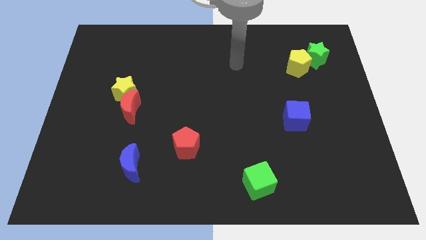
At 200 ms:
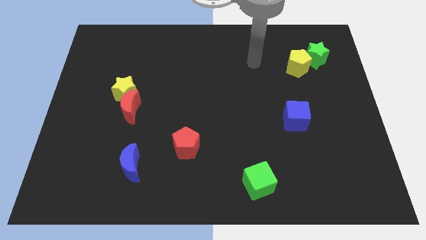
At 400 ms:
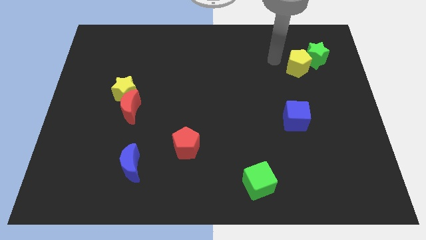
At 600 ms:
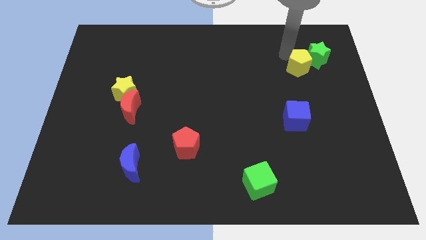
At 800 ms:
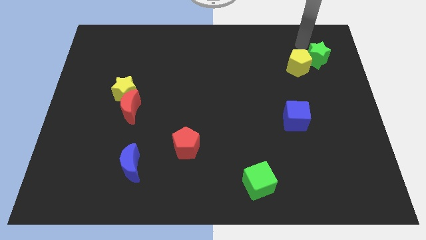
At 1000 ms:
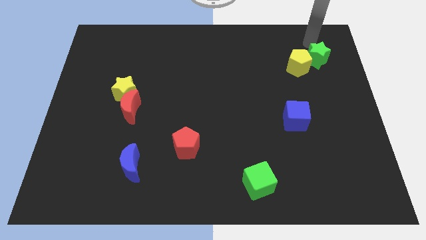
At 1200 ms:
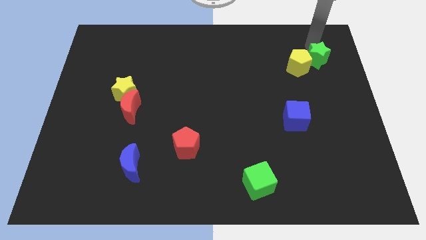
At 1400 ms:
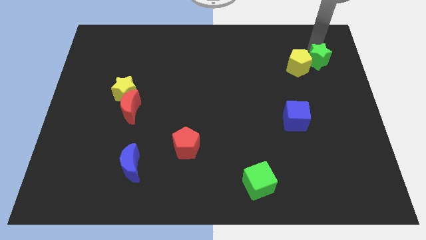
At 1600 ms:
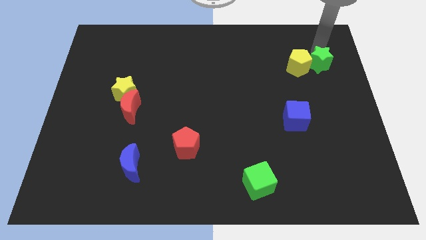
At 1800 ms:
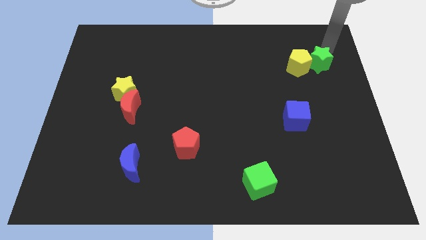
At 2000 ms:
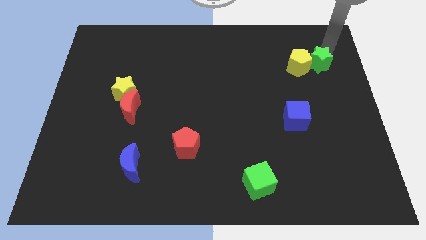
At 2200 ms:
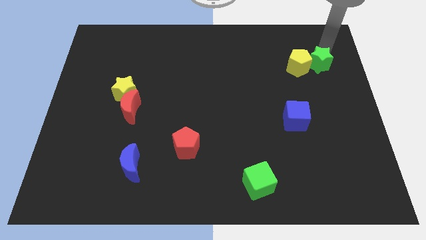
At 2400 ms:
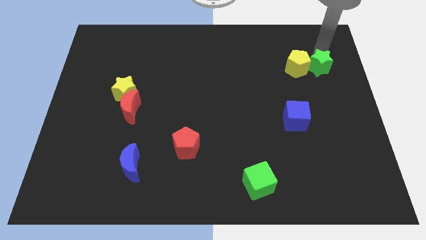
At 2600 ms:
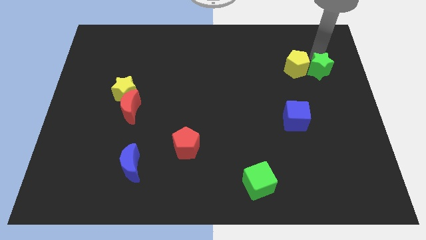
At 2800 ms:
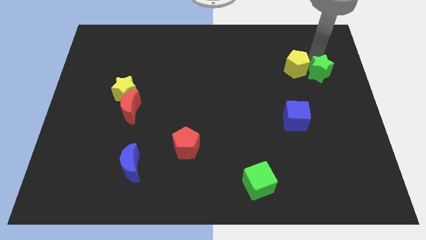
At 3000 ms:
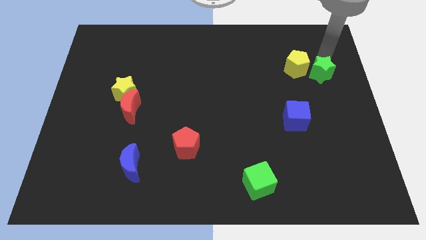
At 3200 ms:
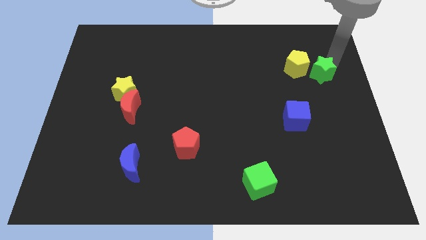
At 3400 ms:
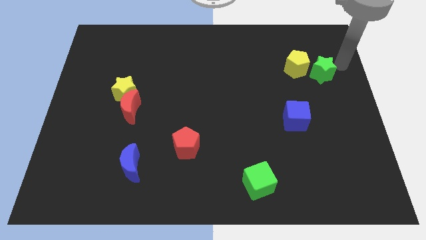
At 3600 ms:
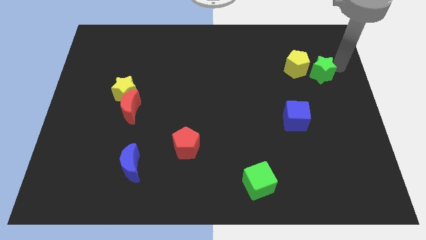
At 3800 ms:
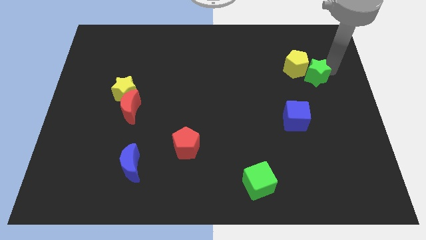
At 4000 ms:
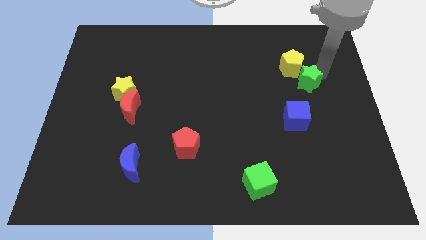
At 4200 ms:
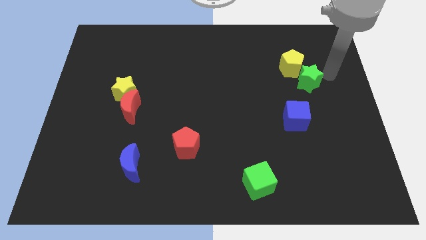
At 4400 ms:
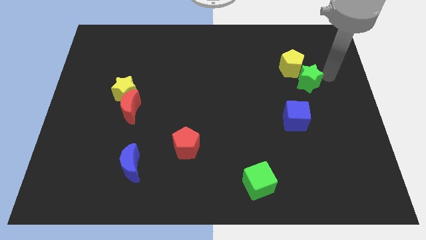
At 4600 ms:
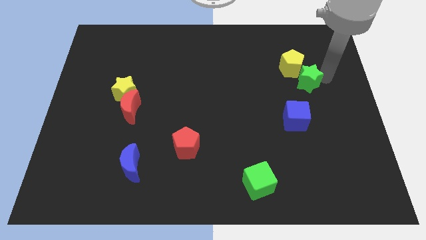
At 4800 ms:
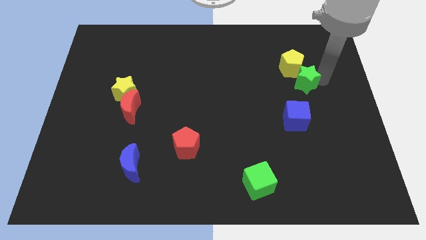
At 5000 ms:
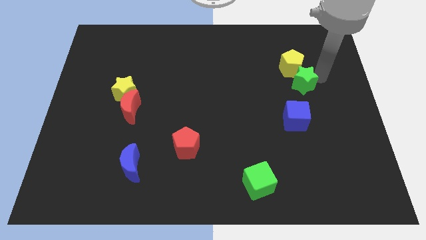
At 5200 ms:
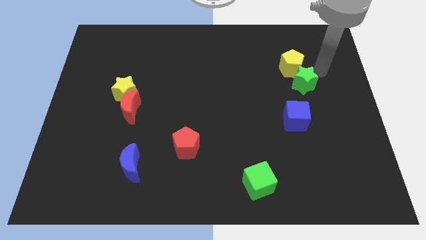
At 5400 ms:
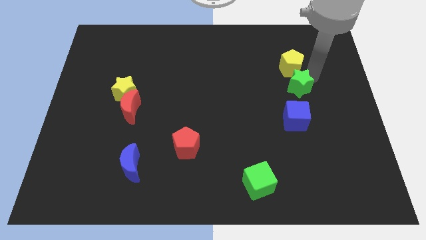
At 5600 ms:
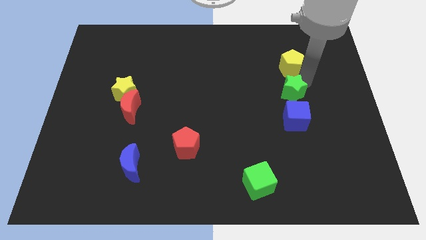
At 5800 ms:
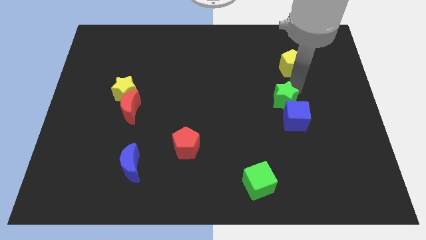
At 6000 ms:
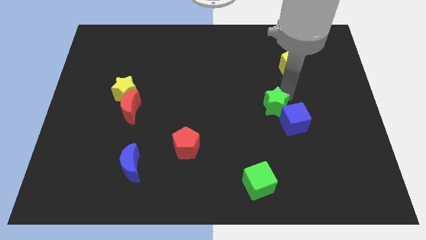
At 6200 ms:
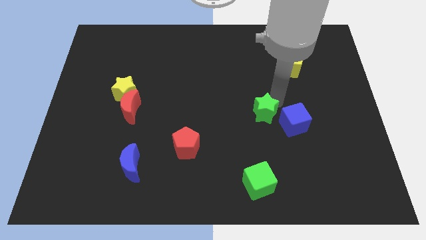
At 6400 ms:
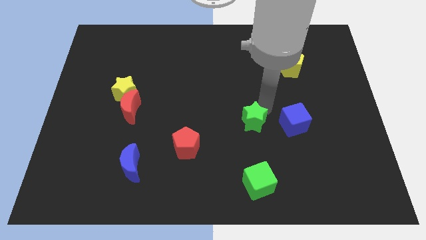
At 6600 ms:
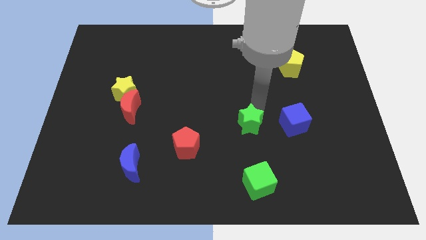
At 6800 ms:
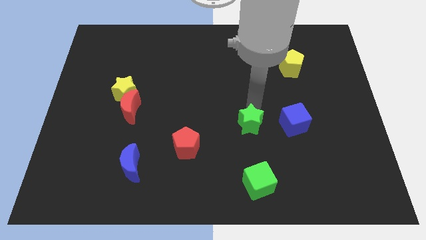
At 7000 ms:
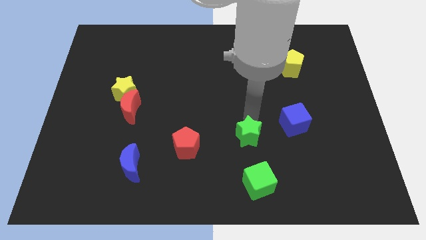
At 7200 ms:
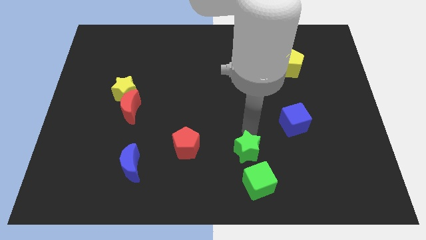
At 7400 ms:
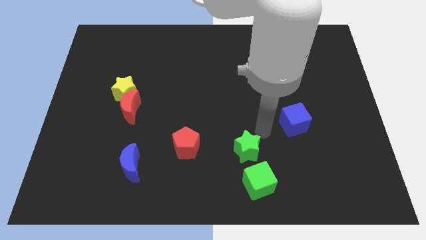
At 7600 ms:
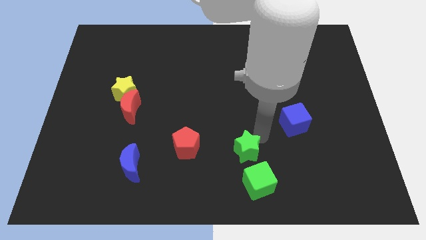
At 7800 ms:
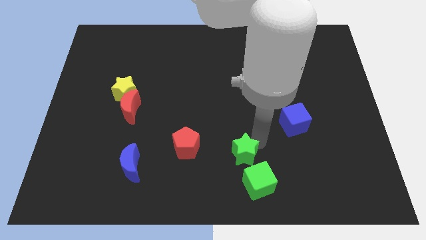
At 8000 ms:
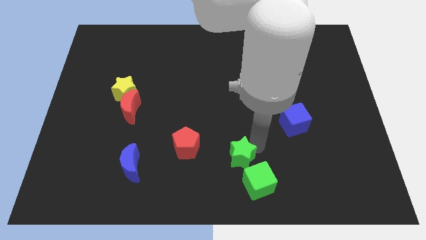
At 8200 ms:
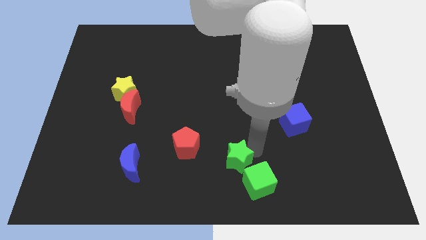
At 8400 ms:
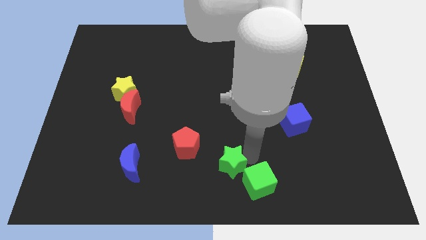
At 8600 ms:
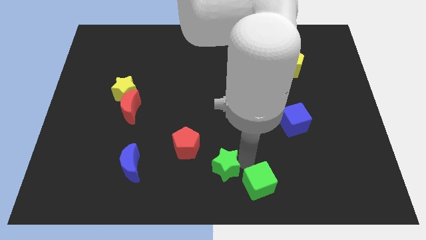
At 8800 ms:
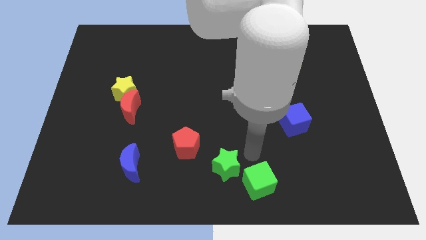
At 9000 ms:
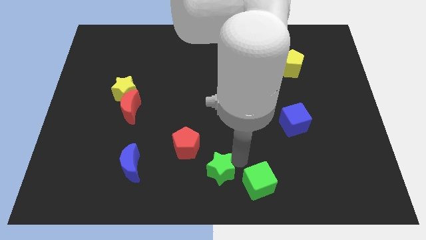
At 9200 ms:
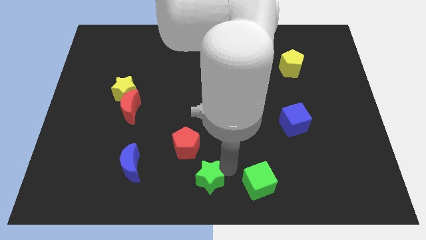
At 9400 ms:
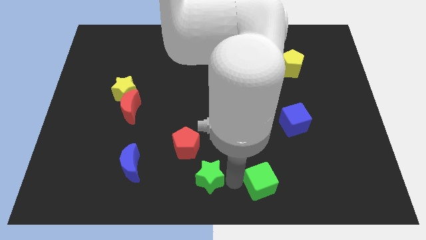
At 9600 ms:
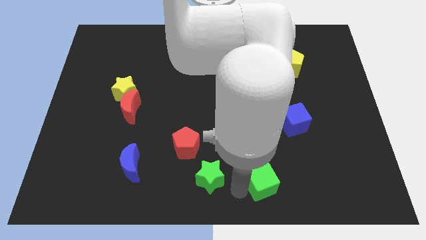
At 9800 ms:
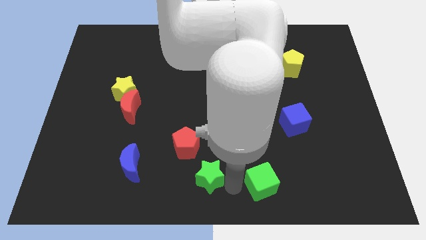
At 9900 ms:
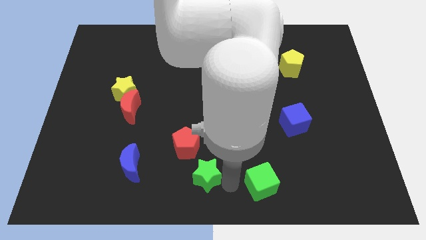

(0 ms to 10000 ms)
push the green star to the right of the blue moon

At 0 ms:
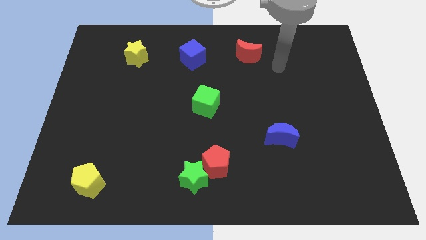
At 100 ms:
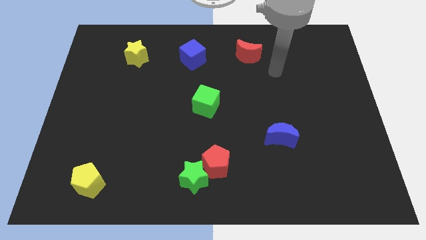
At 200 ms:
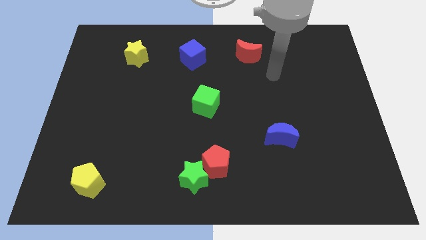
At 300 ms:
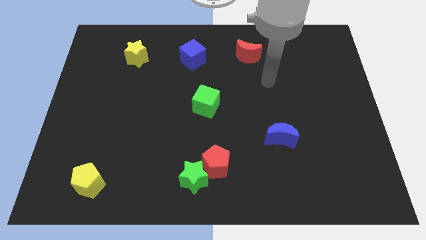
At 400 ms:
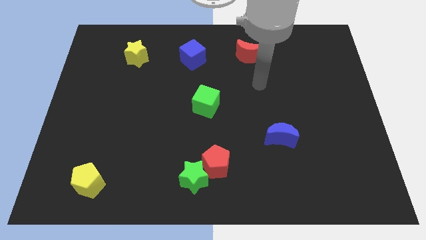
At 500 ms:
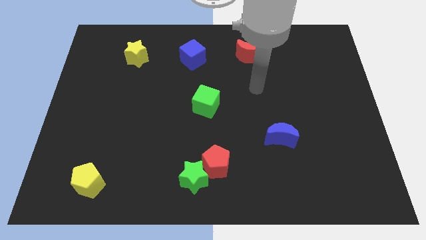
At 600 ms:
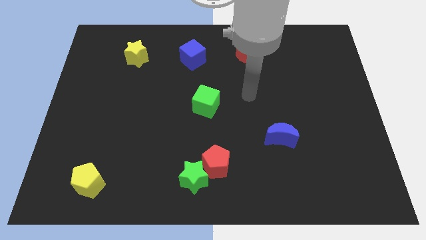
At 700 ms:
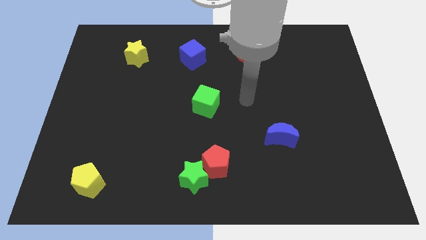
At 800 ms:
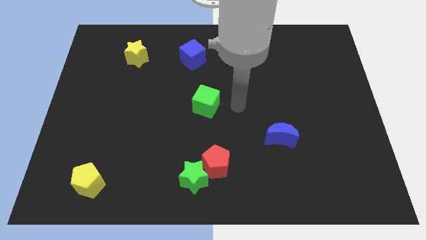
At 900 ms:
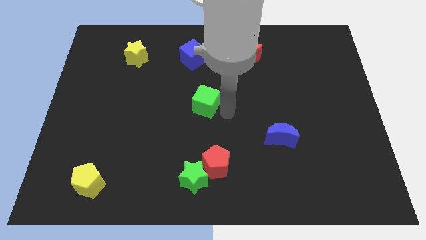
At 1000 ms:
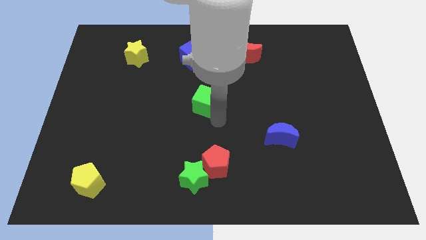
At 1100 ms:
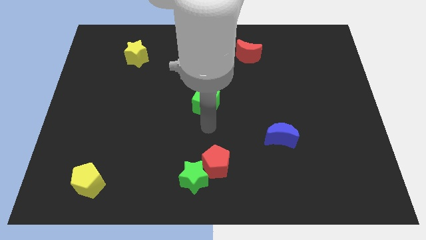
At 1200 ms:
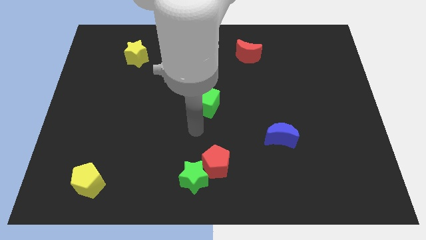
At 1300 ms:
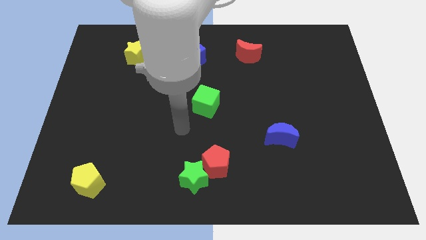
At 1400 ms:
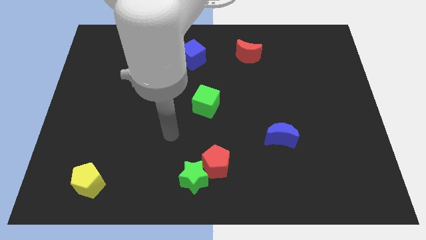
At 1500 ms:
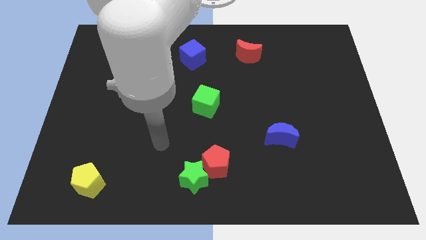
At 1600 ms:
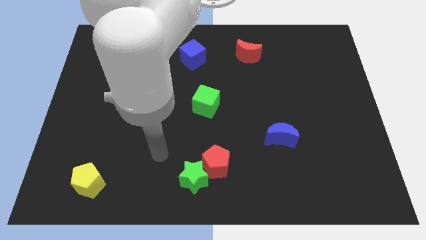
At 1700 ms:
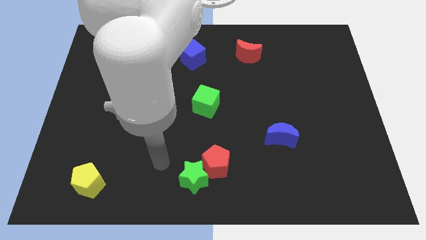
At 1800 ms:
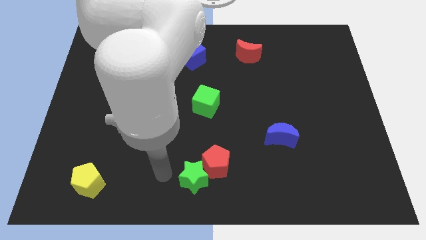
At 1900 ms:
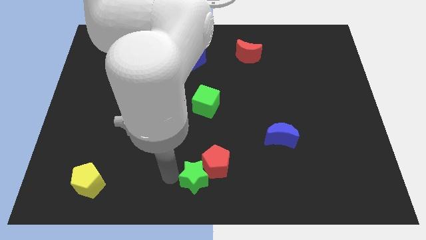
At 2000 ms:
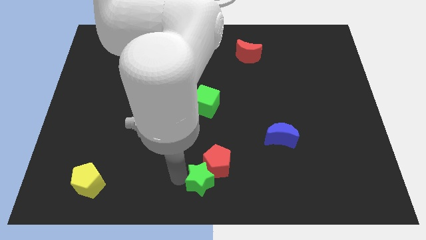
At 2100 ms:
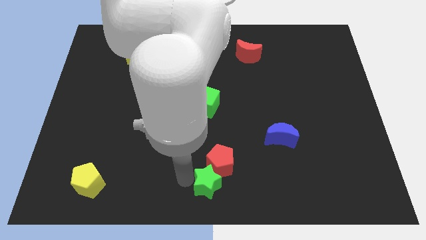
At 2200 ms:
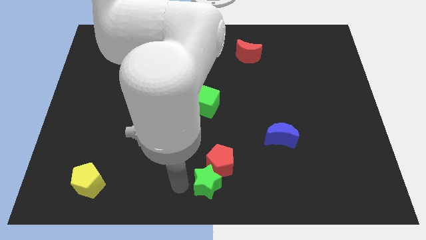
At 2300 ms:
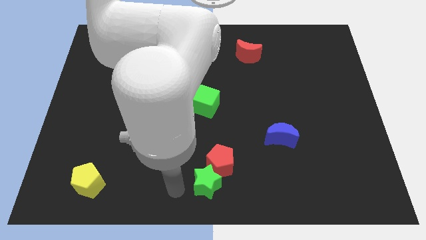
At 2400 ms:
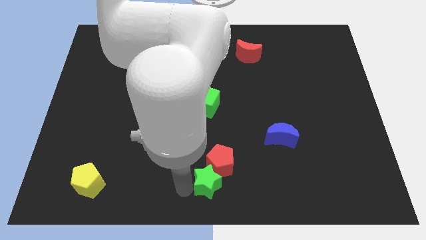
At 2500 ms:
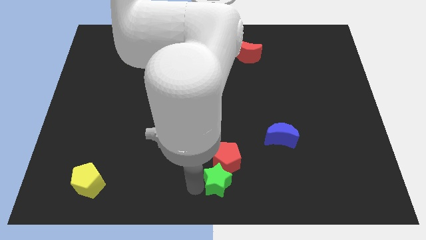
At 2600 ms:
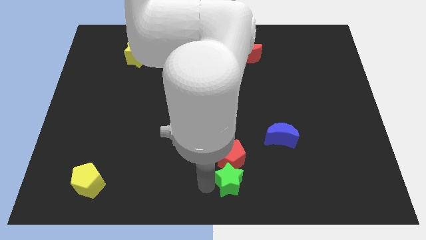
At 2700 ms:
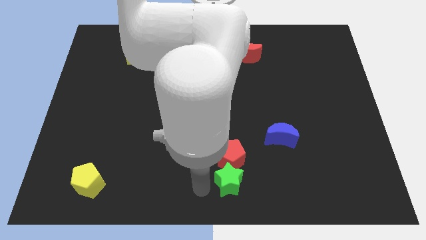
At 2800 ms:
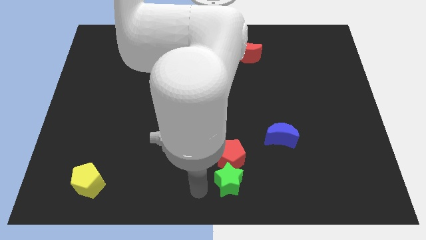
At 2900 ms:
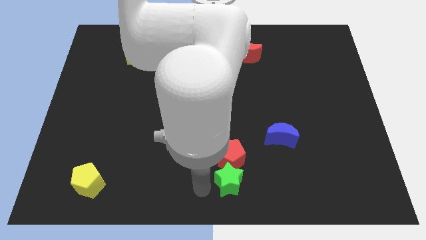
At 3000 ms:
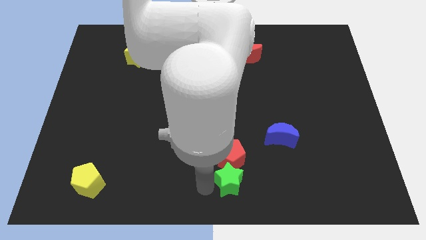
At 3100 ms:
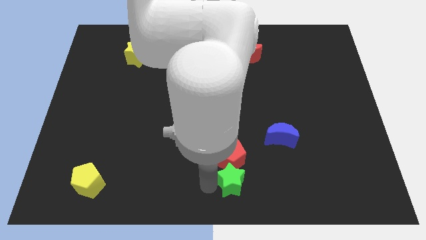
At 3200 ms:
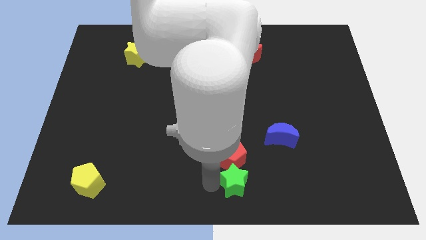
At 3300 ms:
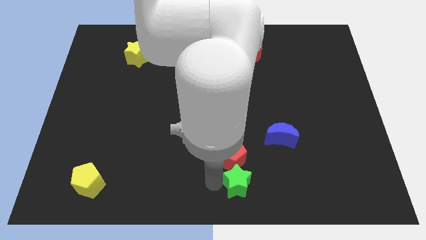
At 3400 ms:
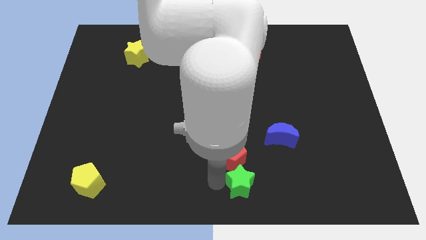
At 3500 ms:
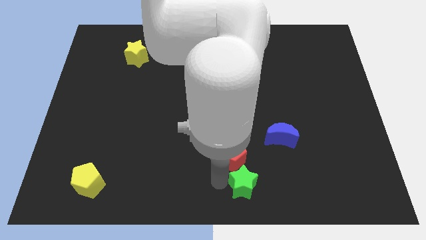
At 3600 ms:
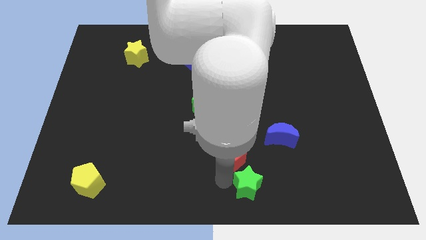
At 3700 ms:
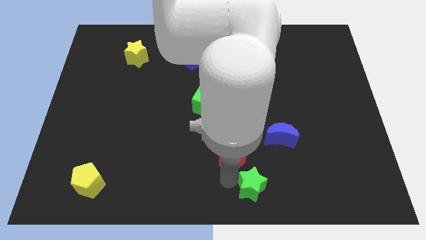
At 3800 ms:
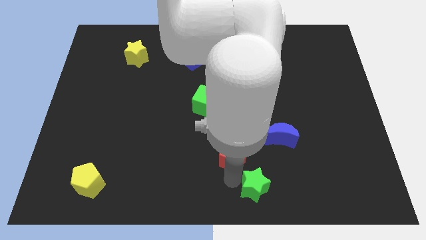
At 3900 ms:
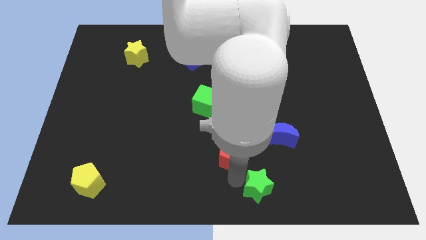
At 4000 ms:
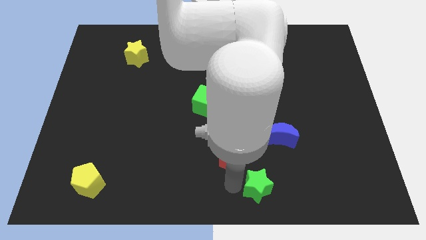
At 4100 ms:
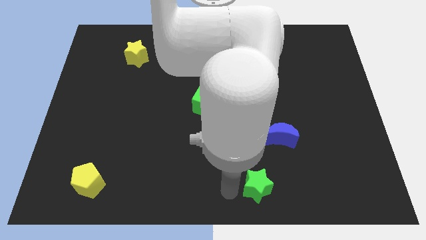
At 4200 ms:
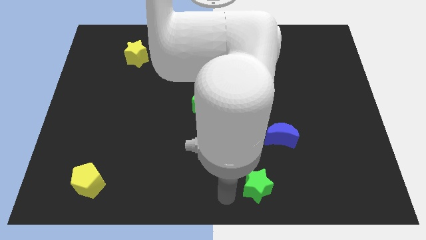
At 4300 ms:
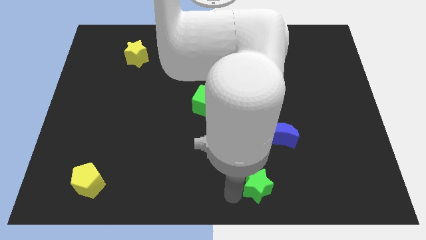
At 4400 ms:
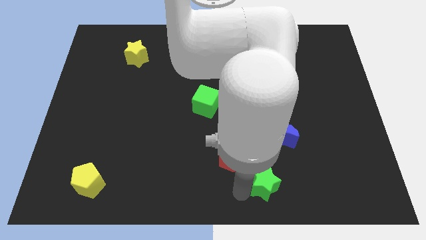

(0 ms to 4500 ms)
slide the green star to the bottom of the blue moon
